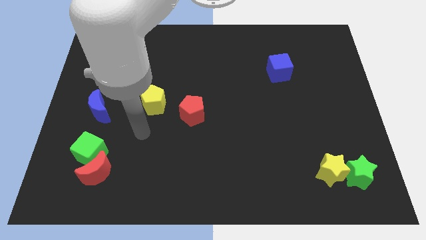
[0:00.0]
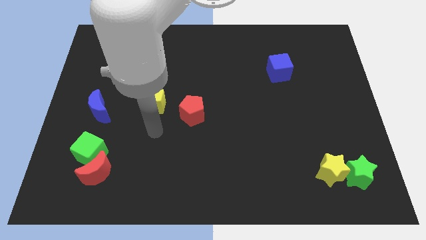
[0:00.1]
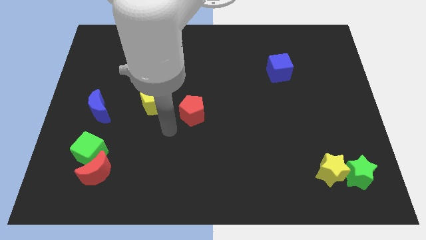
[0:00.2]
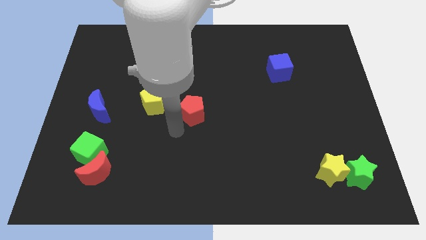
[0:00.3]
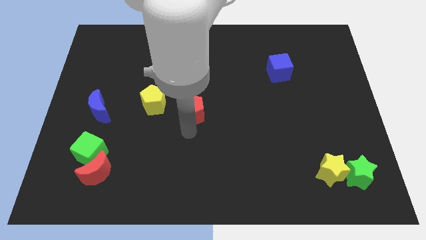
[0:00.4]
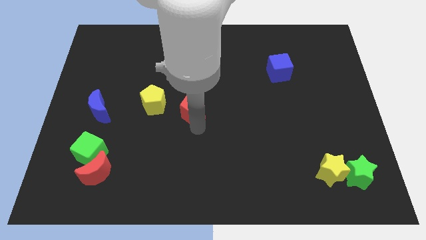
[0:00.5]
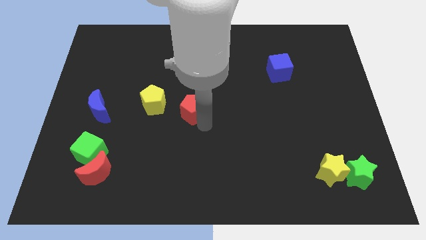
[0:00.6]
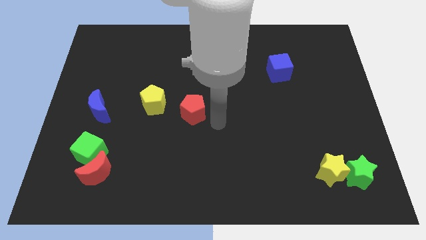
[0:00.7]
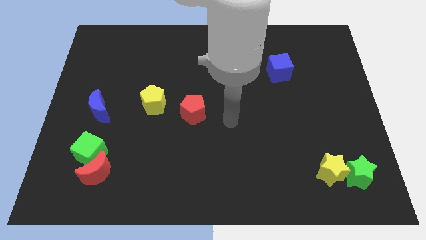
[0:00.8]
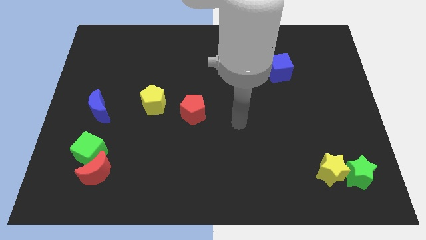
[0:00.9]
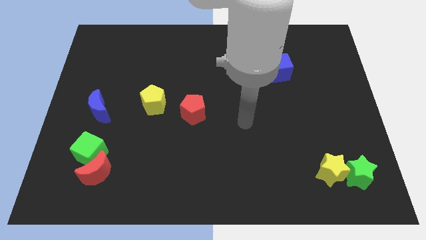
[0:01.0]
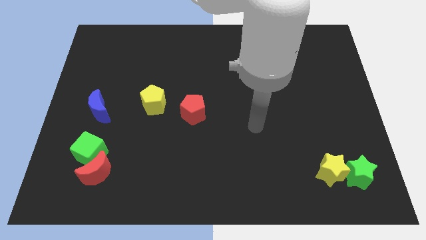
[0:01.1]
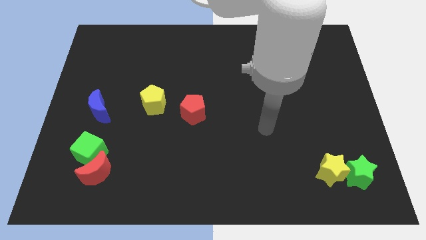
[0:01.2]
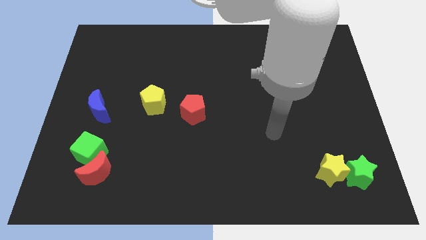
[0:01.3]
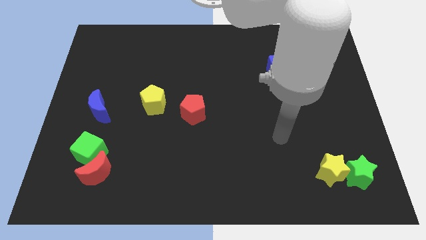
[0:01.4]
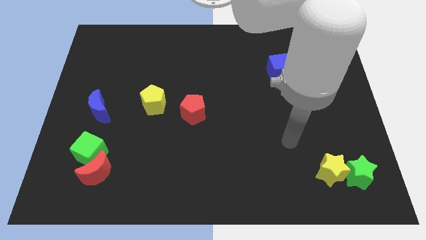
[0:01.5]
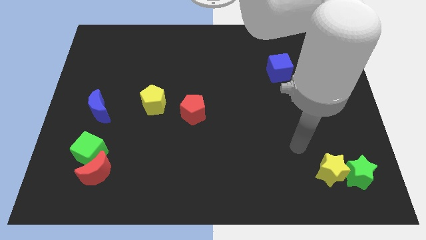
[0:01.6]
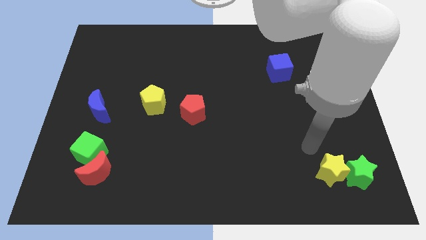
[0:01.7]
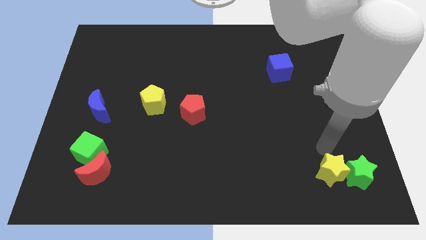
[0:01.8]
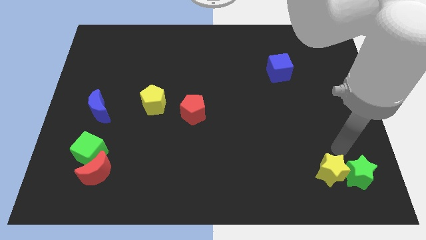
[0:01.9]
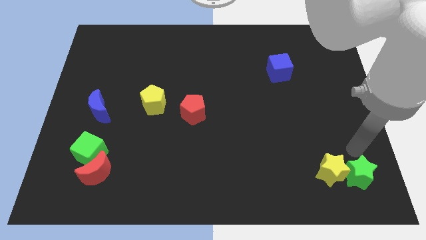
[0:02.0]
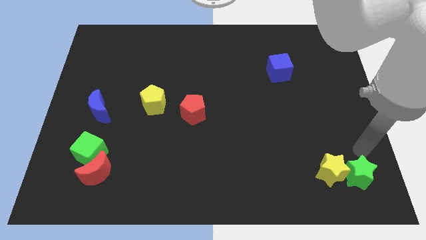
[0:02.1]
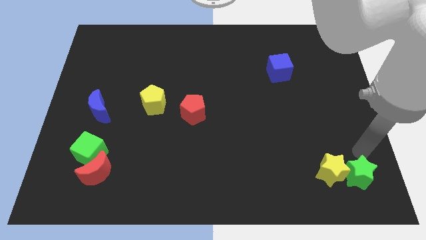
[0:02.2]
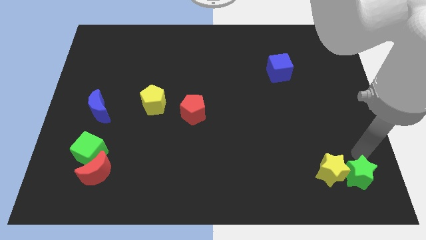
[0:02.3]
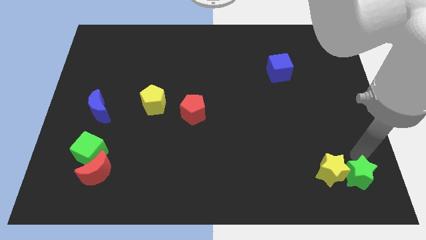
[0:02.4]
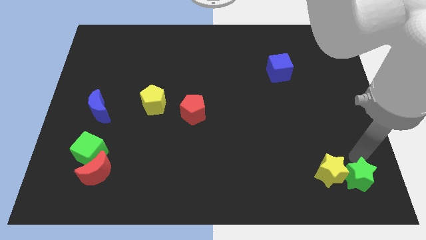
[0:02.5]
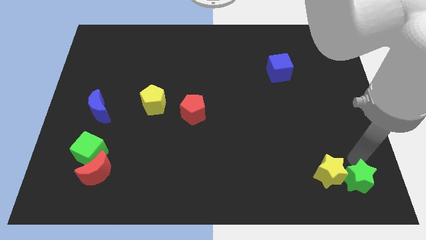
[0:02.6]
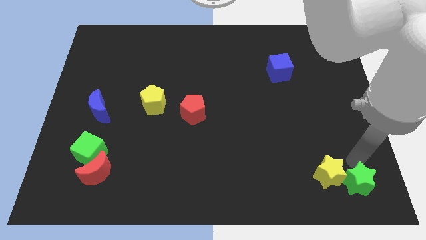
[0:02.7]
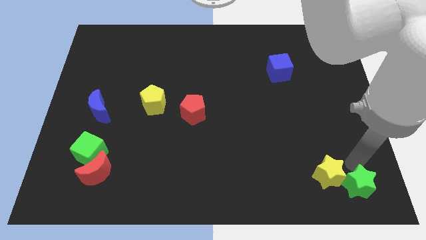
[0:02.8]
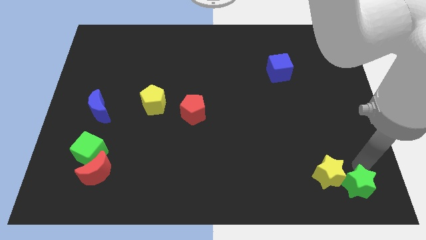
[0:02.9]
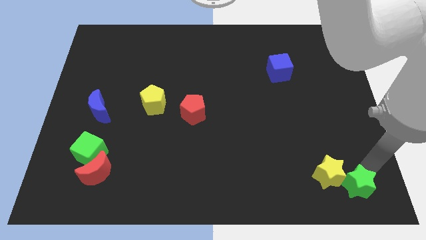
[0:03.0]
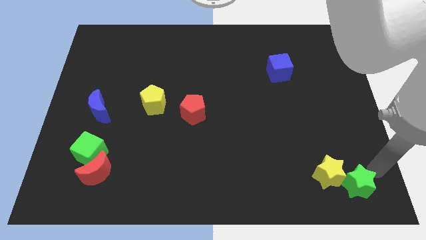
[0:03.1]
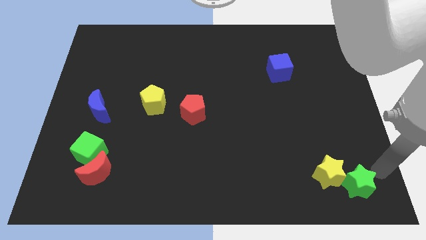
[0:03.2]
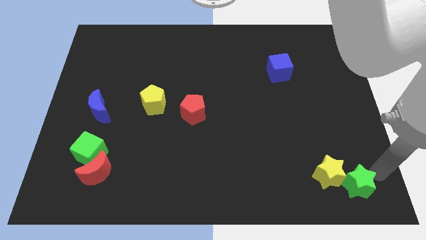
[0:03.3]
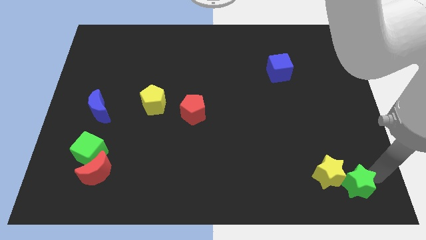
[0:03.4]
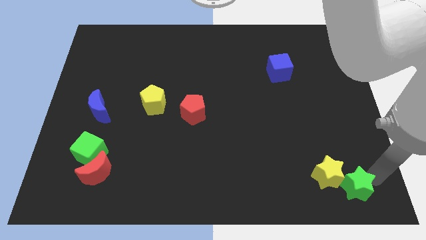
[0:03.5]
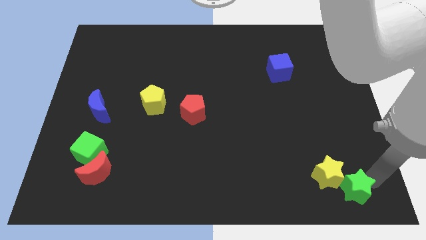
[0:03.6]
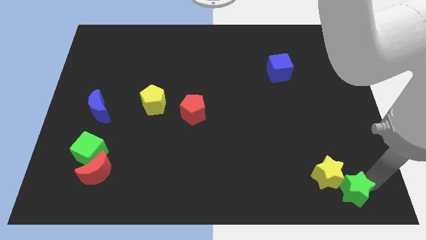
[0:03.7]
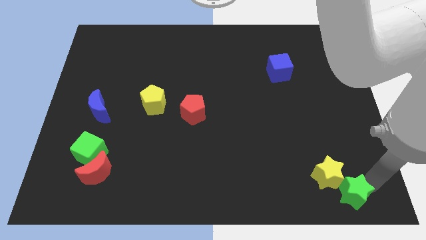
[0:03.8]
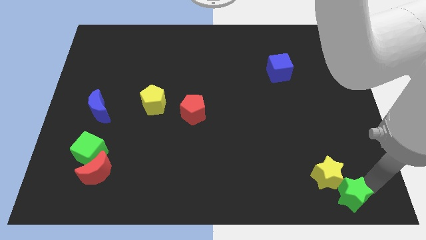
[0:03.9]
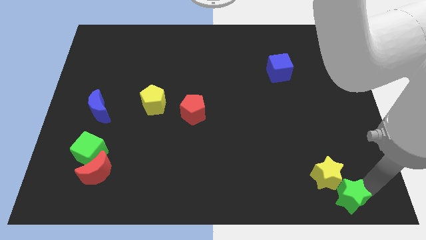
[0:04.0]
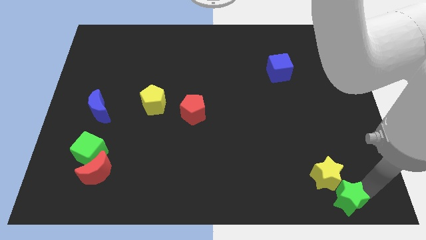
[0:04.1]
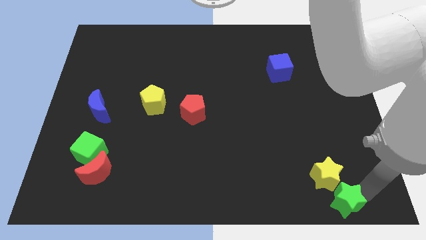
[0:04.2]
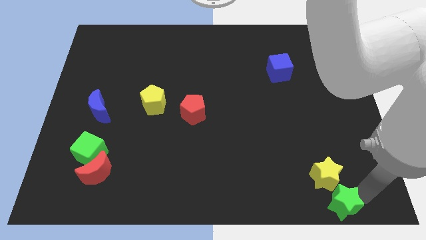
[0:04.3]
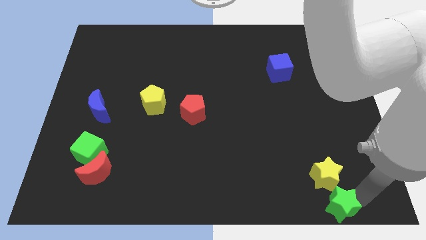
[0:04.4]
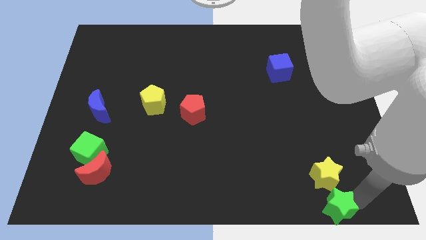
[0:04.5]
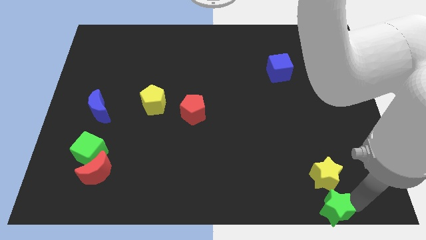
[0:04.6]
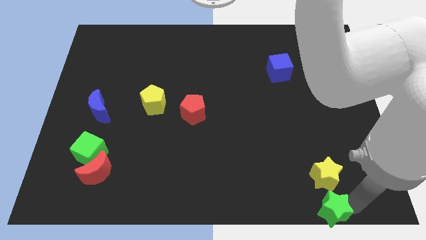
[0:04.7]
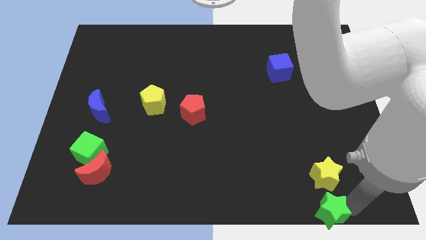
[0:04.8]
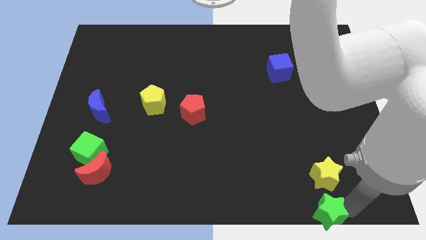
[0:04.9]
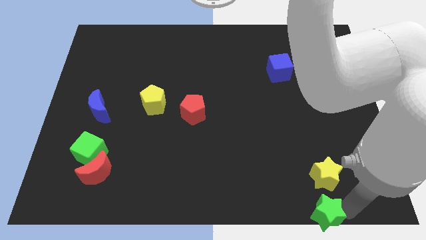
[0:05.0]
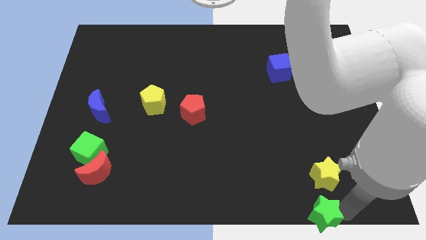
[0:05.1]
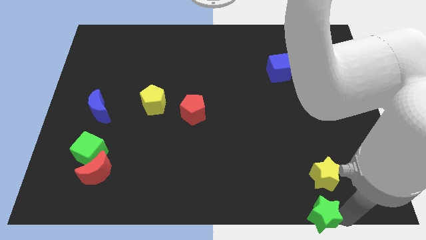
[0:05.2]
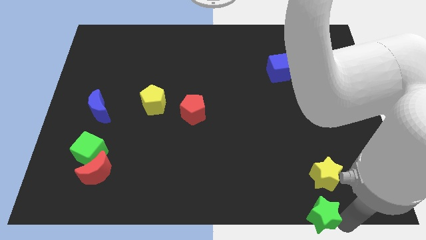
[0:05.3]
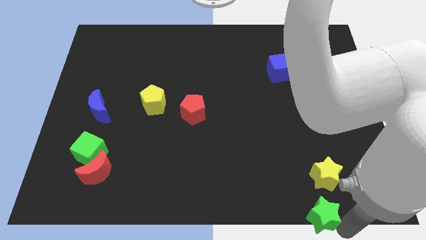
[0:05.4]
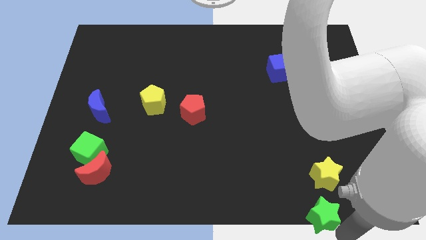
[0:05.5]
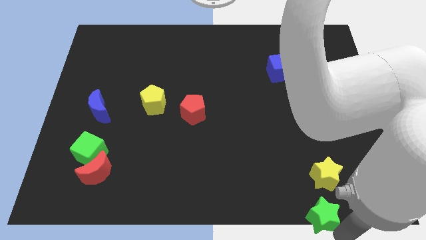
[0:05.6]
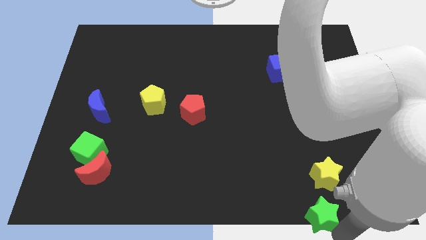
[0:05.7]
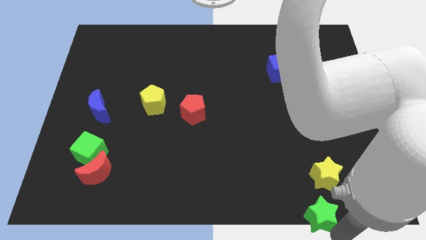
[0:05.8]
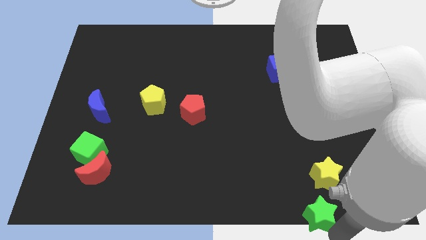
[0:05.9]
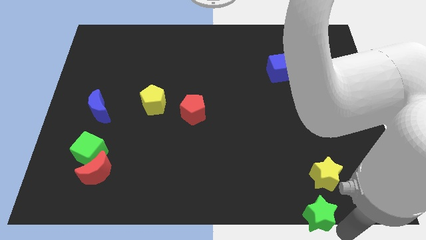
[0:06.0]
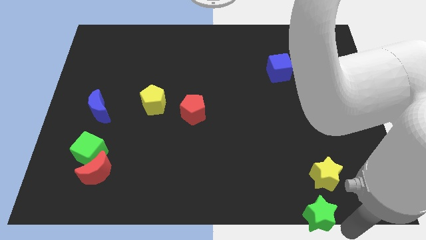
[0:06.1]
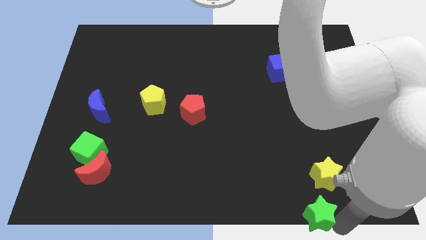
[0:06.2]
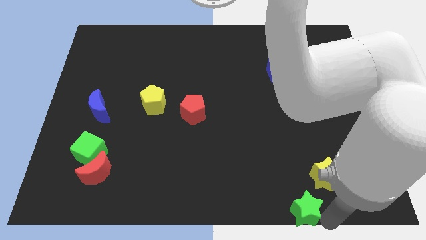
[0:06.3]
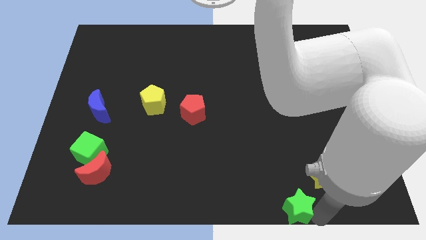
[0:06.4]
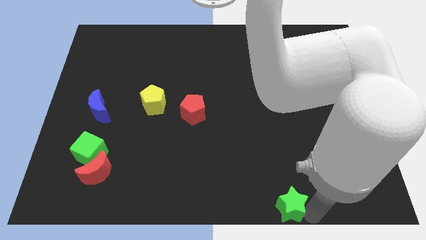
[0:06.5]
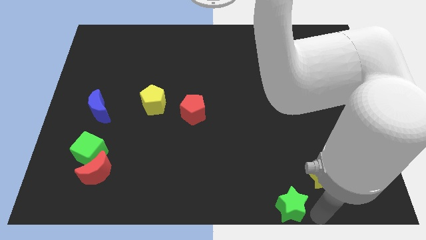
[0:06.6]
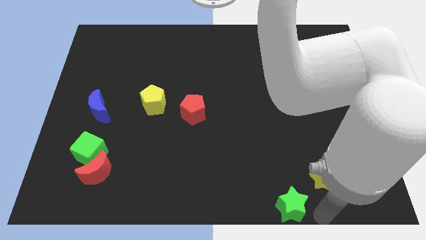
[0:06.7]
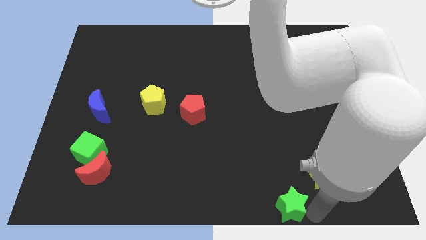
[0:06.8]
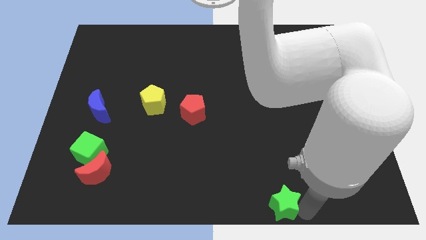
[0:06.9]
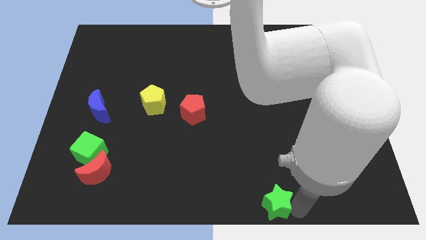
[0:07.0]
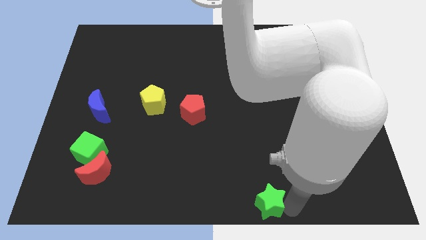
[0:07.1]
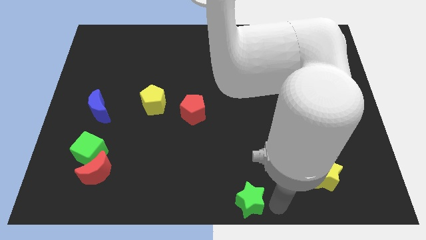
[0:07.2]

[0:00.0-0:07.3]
move the green star to the left

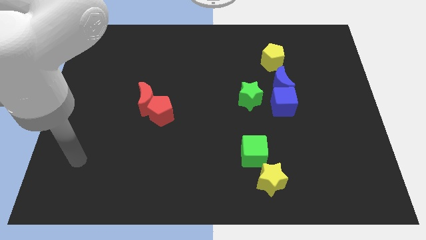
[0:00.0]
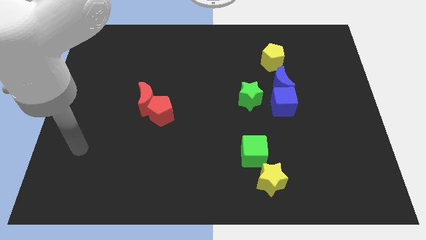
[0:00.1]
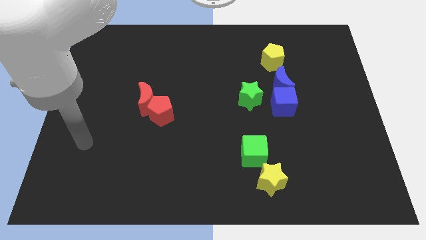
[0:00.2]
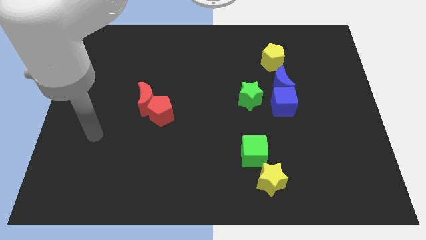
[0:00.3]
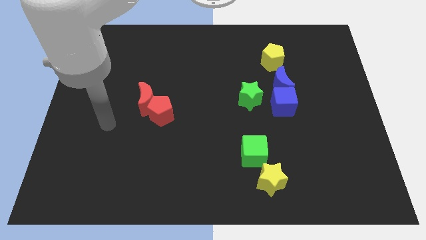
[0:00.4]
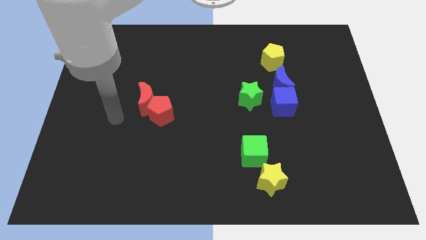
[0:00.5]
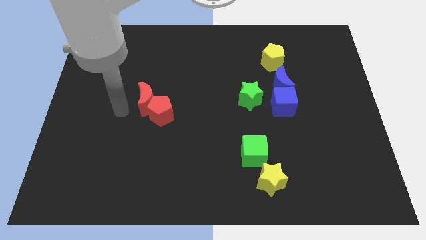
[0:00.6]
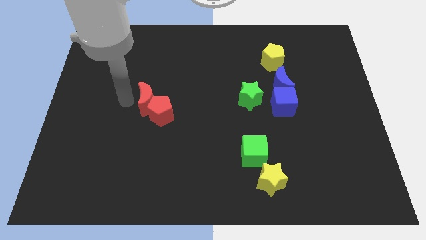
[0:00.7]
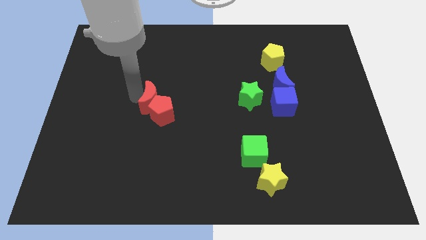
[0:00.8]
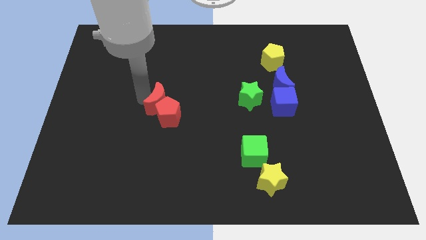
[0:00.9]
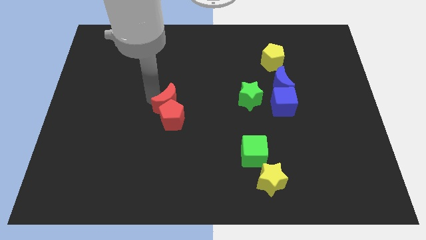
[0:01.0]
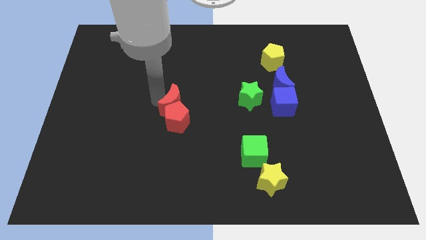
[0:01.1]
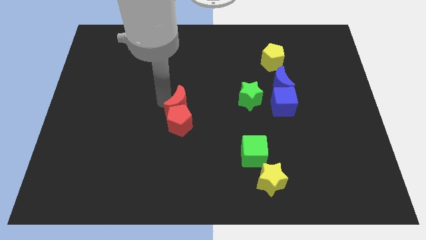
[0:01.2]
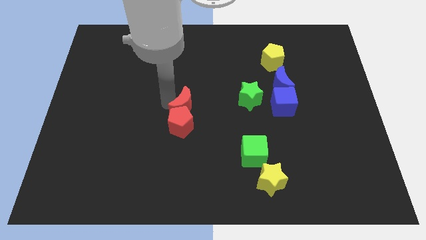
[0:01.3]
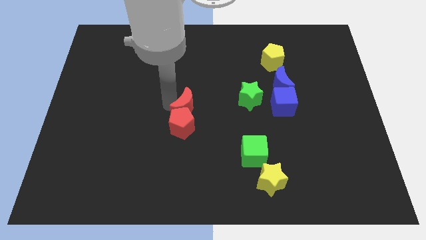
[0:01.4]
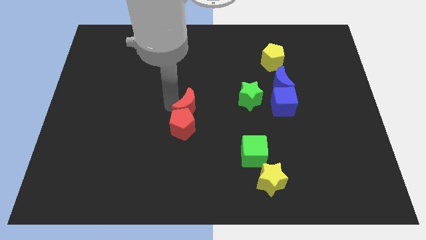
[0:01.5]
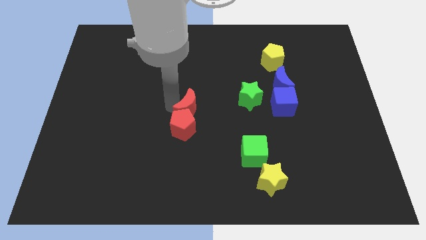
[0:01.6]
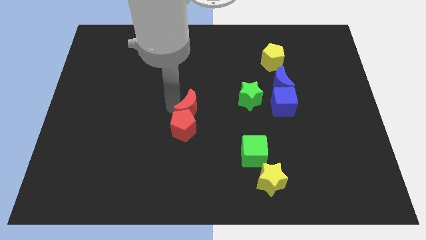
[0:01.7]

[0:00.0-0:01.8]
slide the red pentagon down and to the right diagonally somewhat
